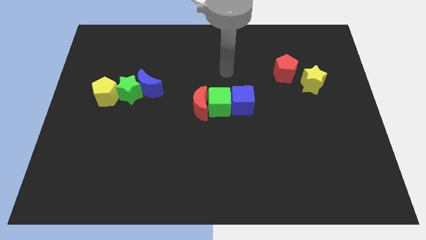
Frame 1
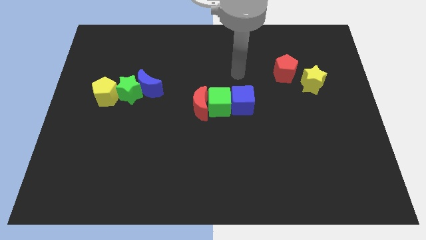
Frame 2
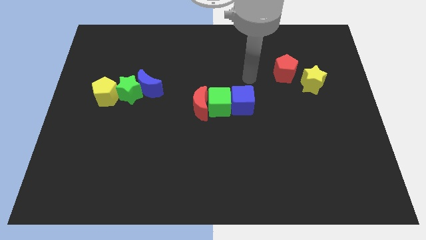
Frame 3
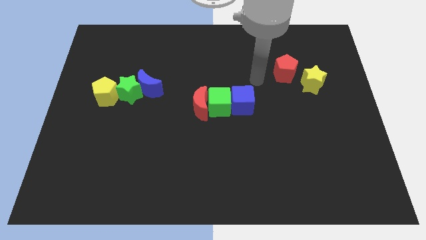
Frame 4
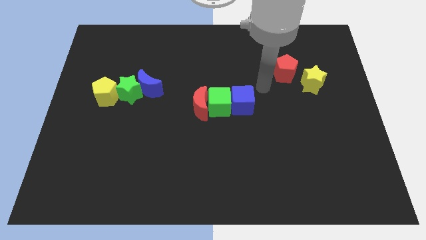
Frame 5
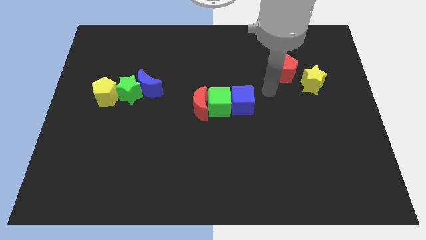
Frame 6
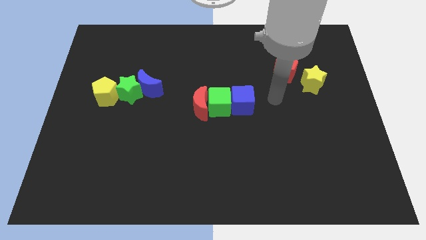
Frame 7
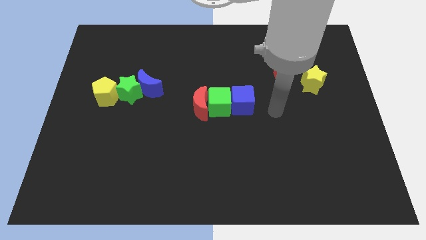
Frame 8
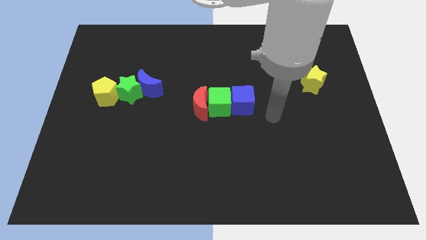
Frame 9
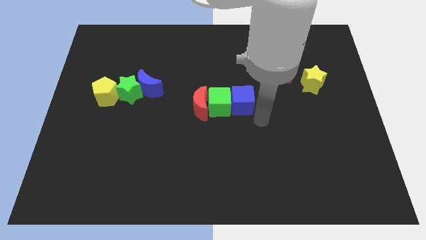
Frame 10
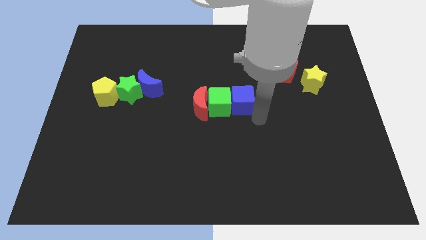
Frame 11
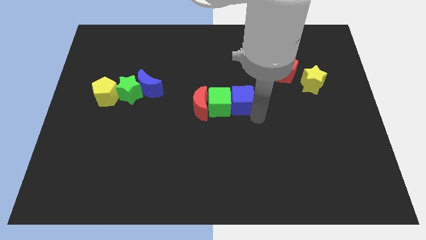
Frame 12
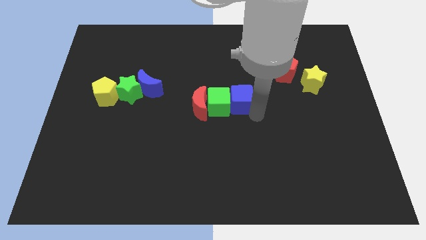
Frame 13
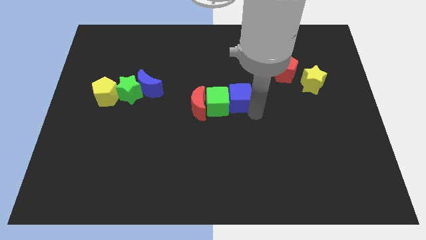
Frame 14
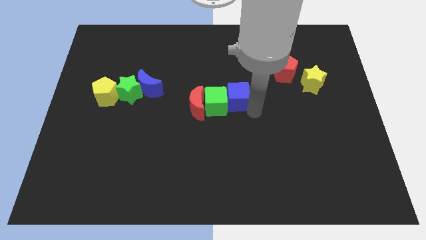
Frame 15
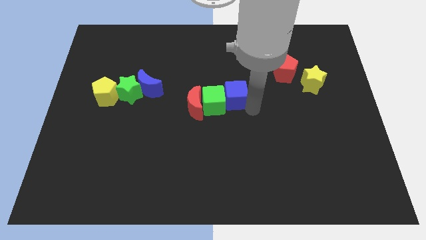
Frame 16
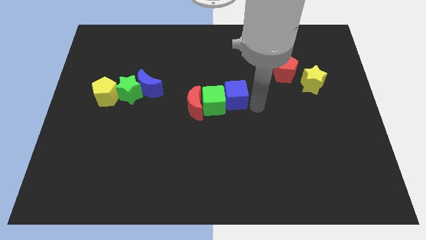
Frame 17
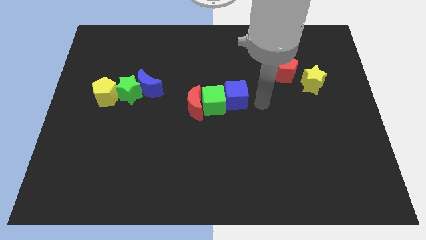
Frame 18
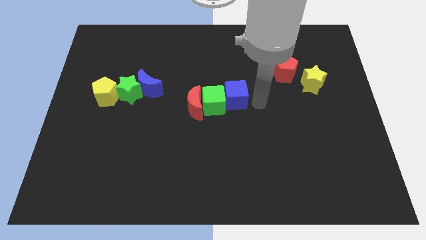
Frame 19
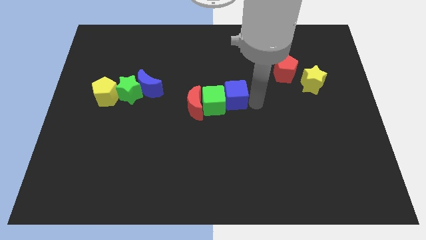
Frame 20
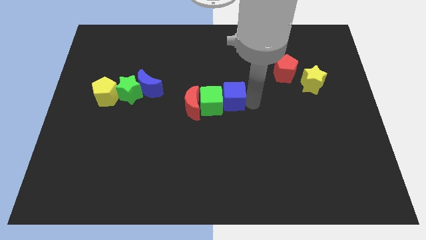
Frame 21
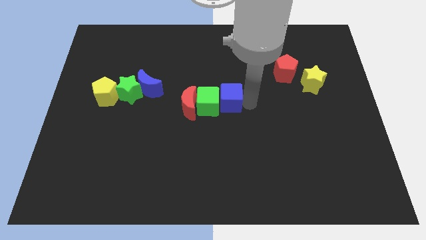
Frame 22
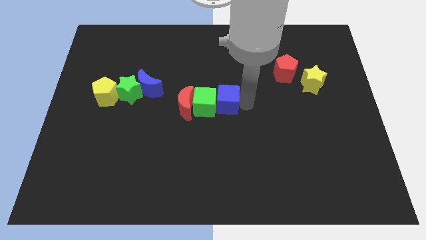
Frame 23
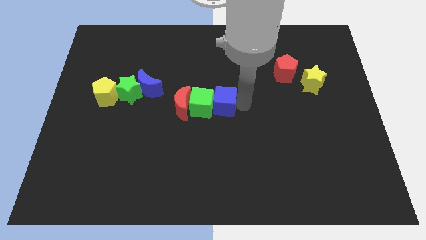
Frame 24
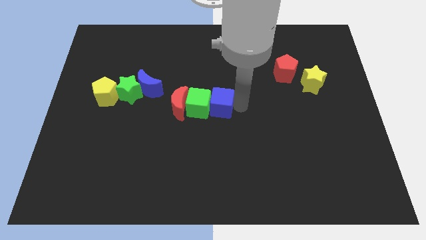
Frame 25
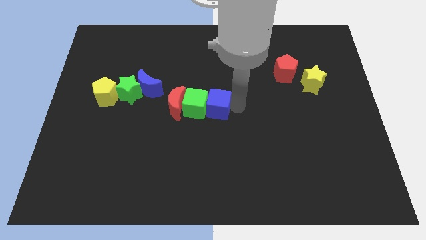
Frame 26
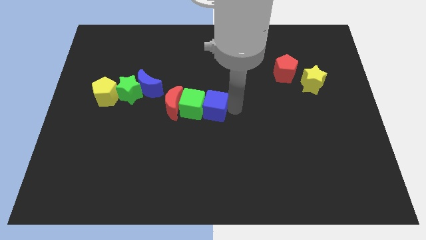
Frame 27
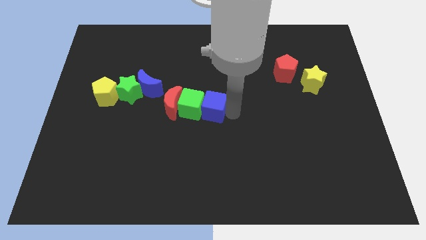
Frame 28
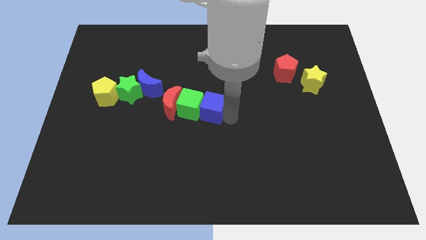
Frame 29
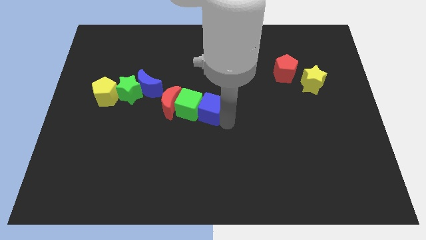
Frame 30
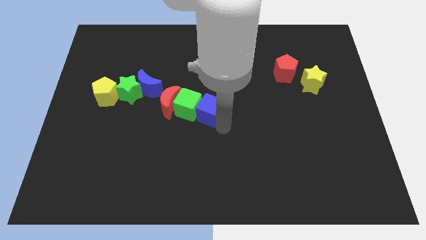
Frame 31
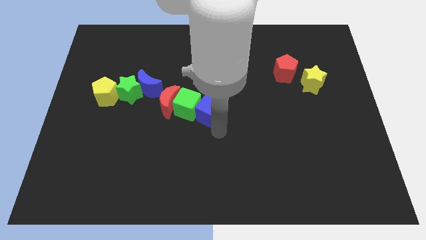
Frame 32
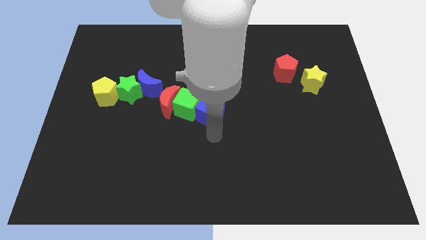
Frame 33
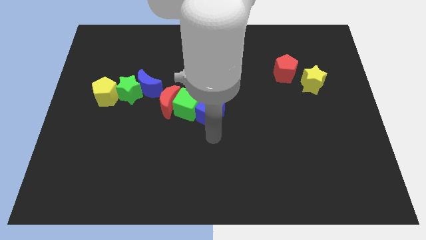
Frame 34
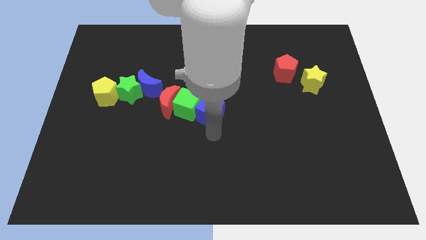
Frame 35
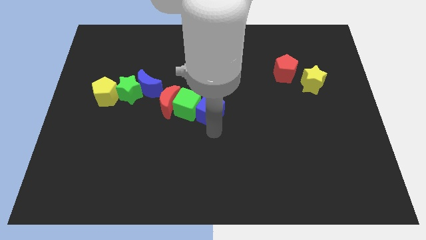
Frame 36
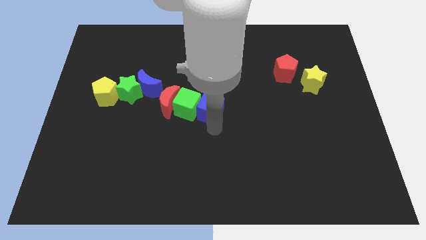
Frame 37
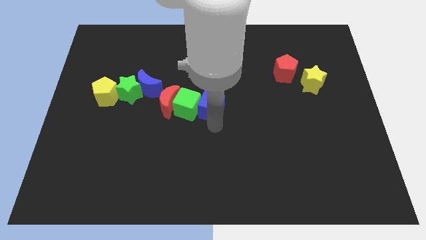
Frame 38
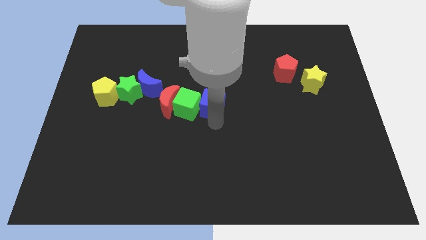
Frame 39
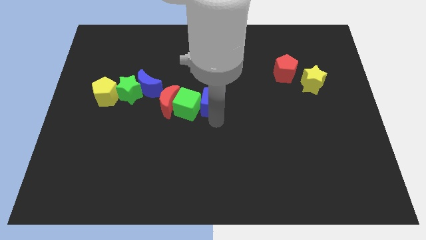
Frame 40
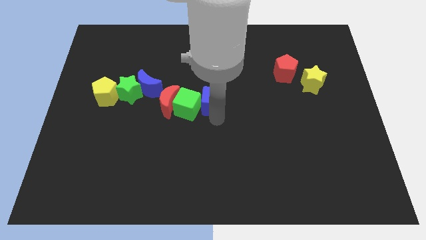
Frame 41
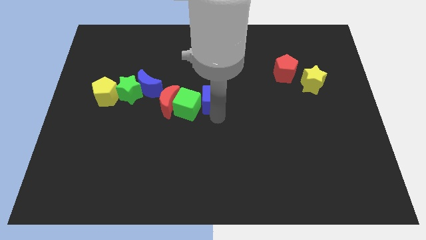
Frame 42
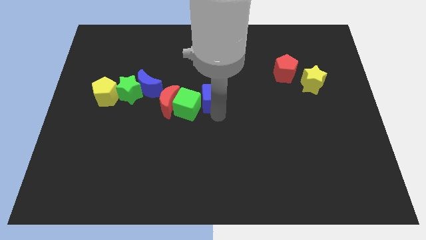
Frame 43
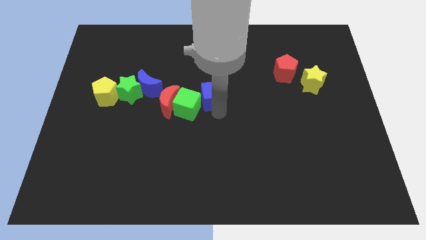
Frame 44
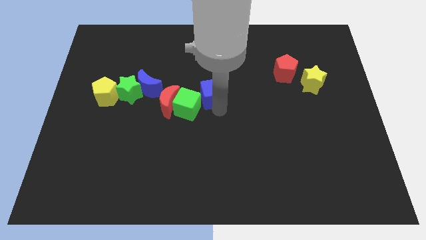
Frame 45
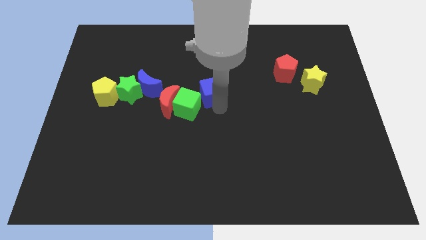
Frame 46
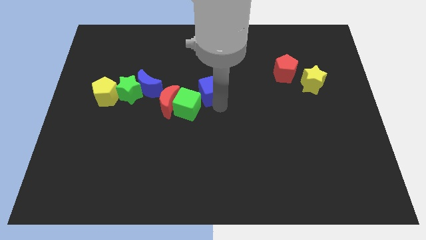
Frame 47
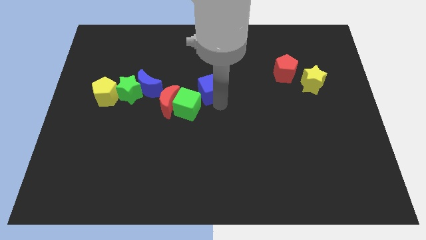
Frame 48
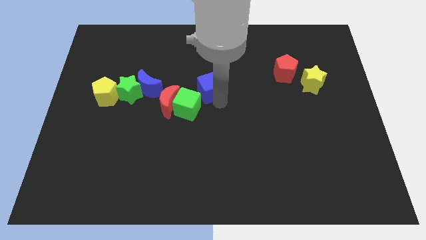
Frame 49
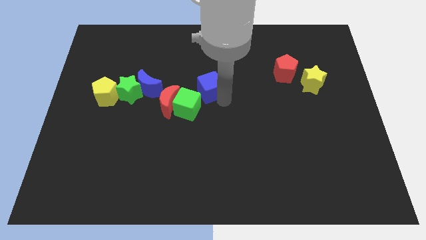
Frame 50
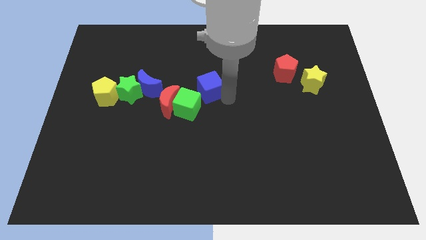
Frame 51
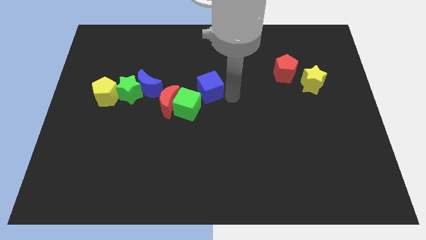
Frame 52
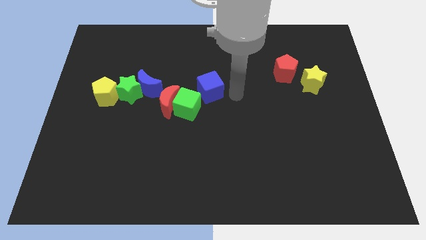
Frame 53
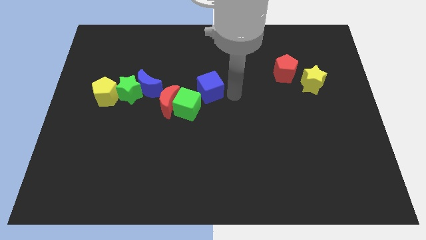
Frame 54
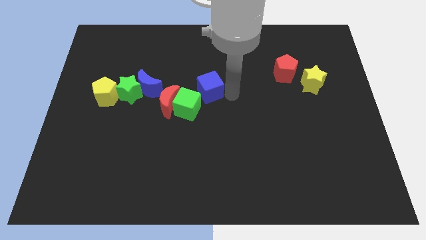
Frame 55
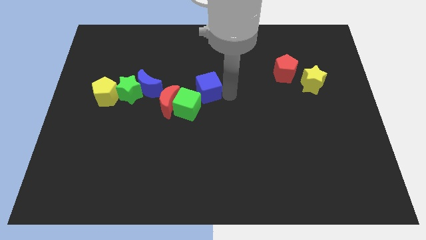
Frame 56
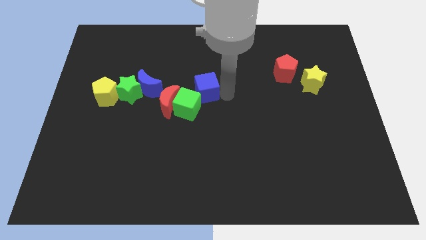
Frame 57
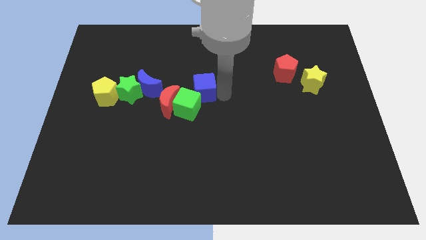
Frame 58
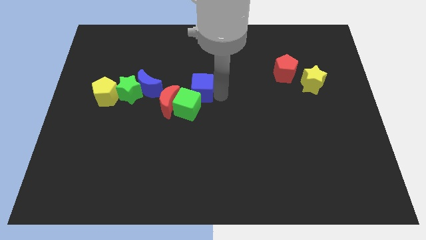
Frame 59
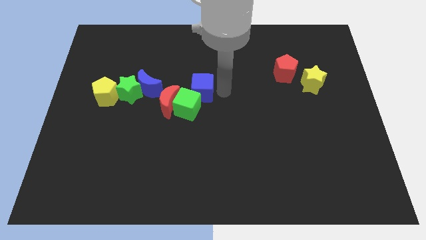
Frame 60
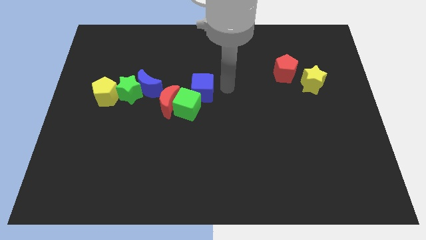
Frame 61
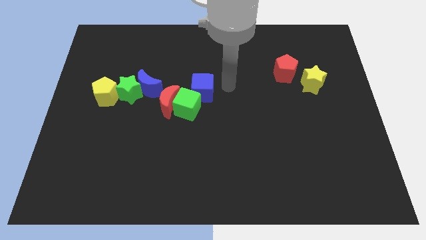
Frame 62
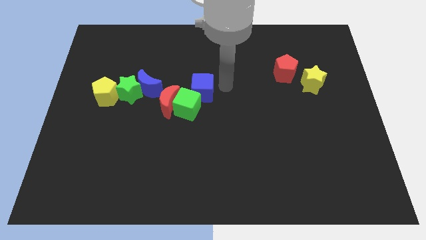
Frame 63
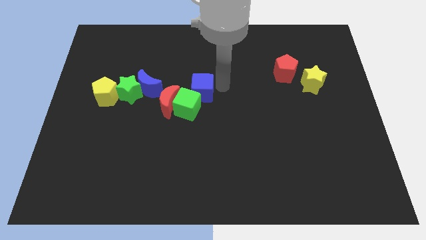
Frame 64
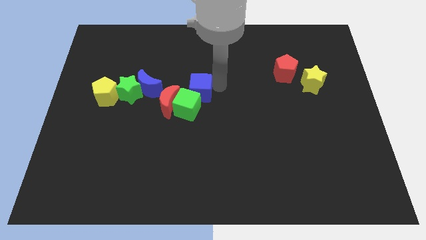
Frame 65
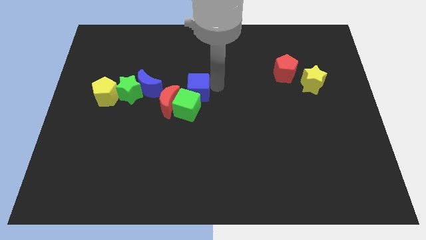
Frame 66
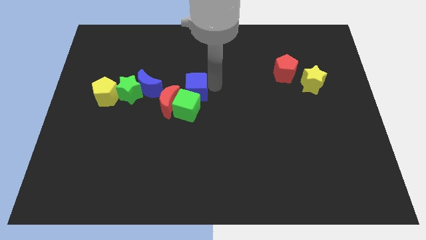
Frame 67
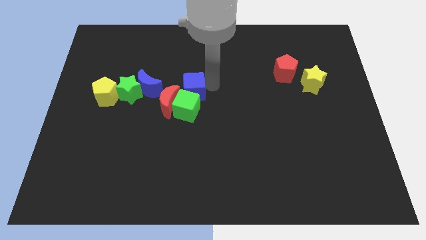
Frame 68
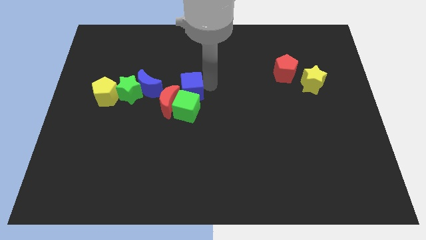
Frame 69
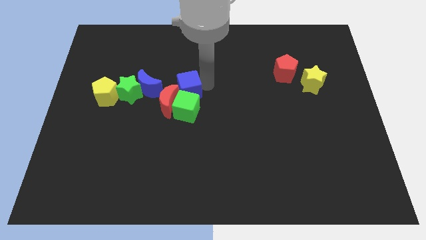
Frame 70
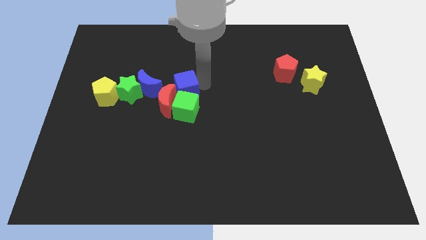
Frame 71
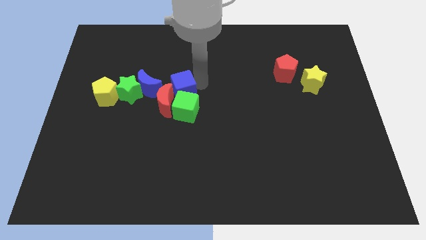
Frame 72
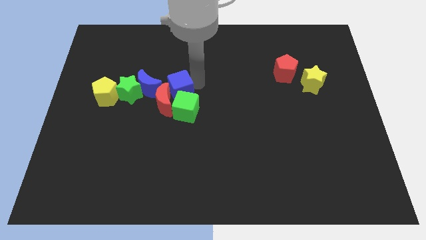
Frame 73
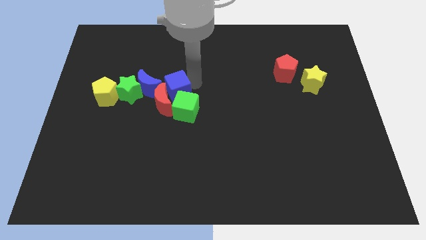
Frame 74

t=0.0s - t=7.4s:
move the blue cube to the bottom right side of the blue moon
